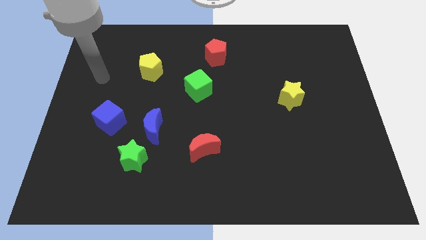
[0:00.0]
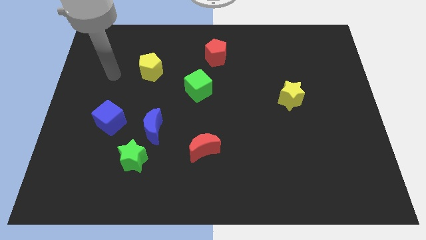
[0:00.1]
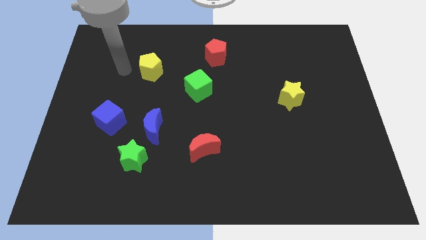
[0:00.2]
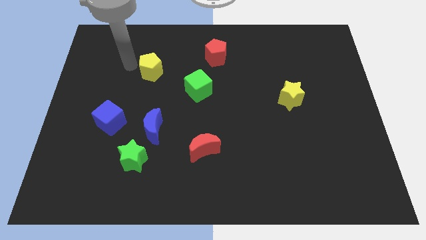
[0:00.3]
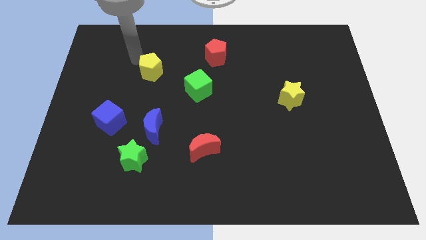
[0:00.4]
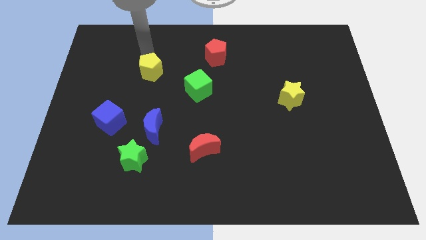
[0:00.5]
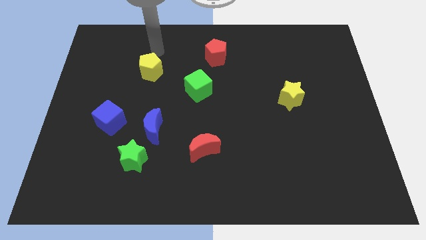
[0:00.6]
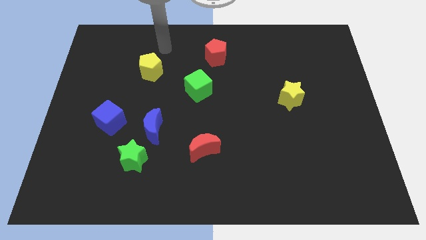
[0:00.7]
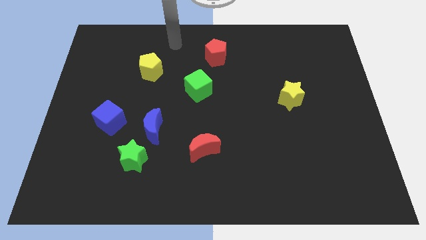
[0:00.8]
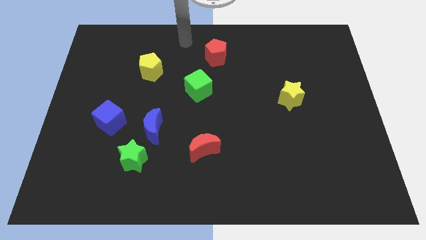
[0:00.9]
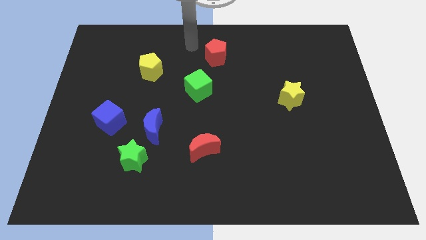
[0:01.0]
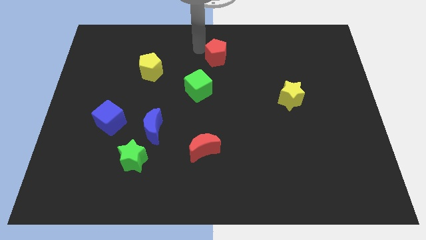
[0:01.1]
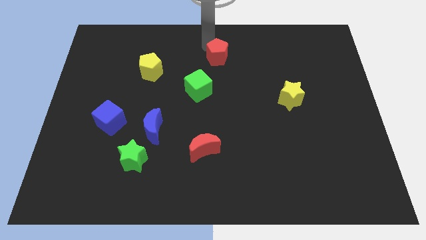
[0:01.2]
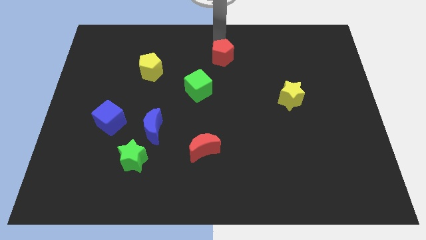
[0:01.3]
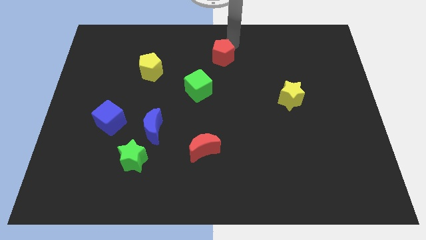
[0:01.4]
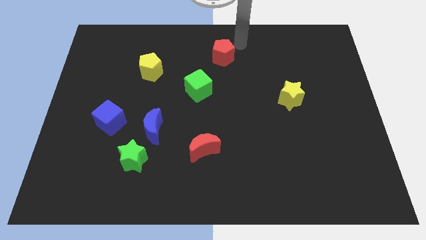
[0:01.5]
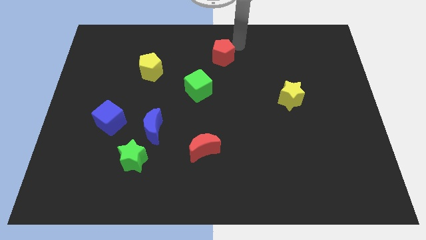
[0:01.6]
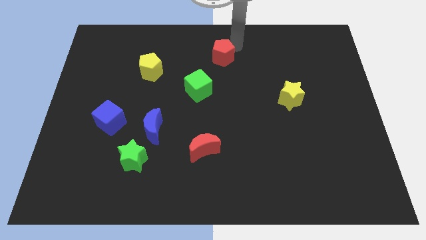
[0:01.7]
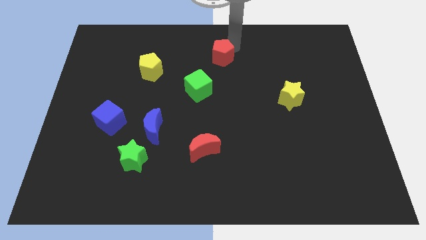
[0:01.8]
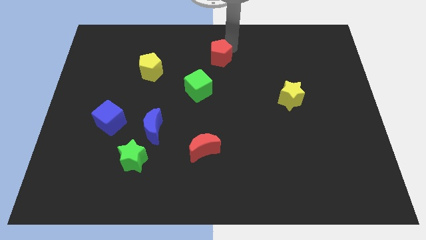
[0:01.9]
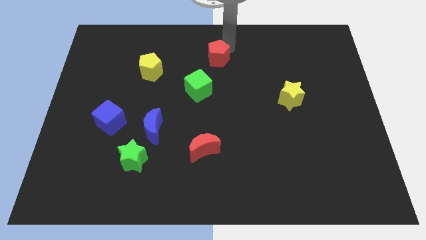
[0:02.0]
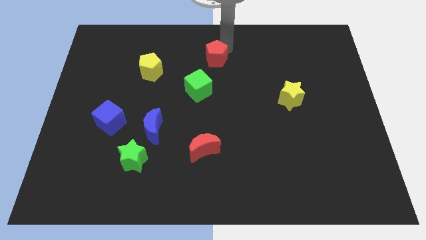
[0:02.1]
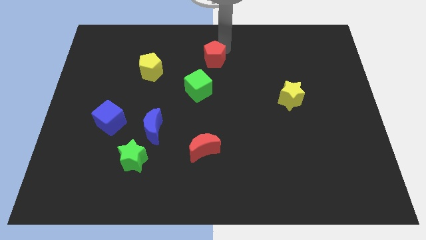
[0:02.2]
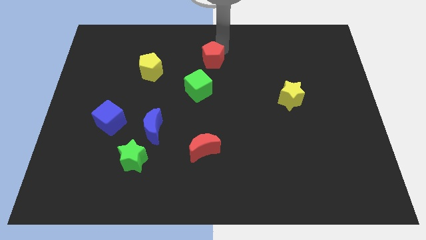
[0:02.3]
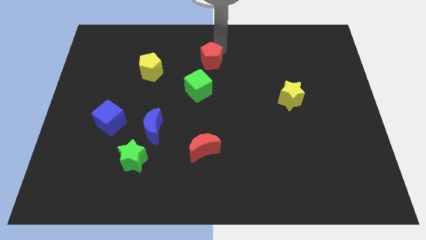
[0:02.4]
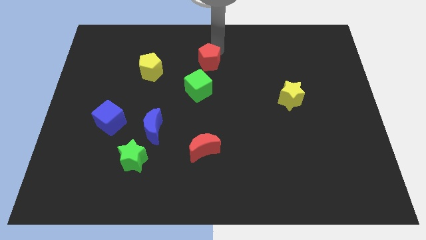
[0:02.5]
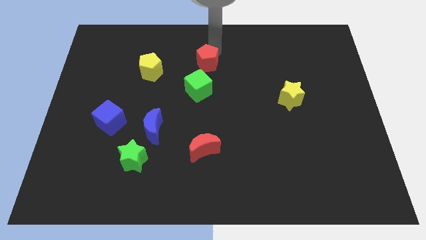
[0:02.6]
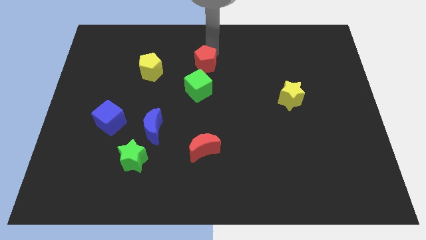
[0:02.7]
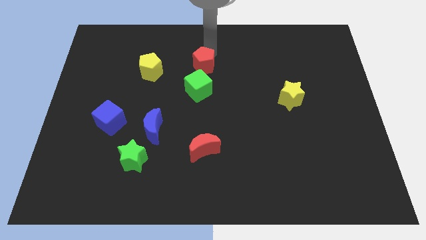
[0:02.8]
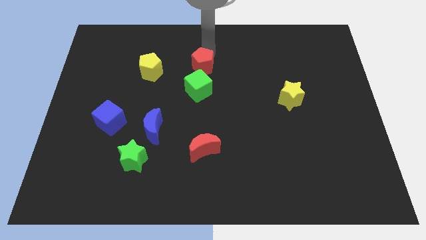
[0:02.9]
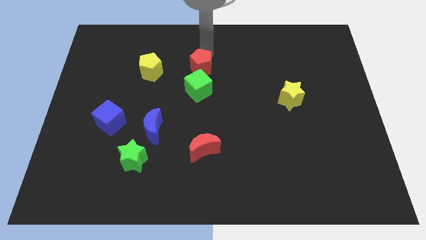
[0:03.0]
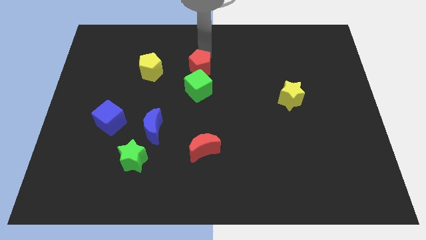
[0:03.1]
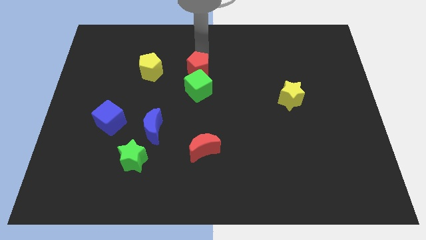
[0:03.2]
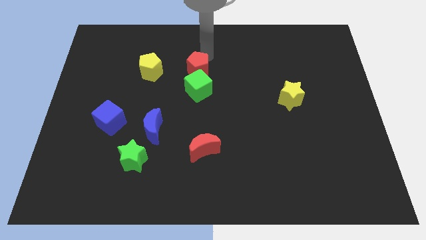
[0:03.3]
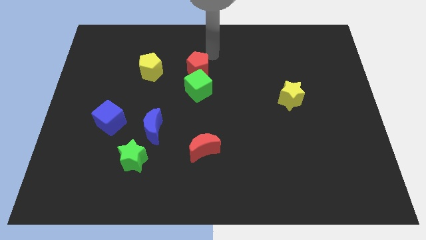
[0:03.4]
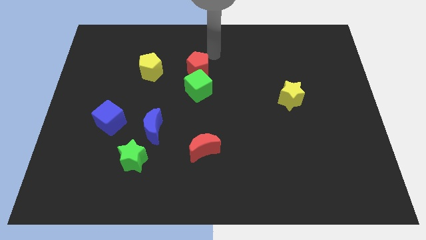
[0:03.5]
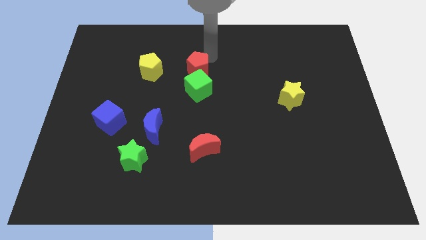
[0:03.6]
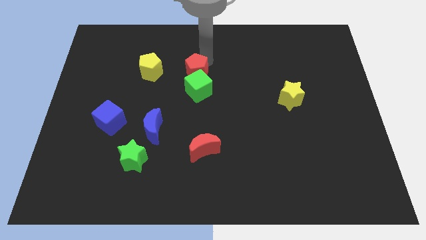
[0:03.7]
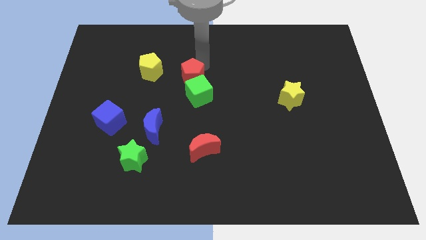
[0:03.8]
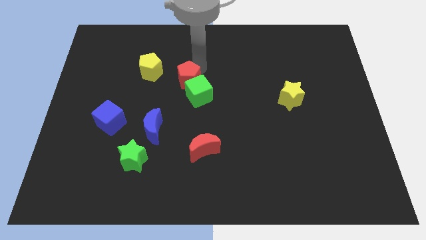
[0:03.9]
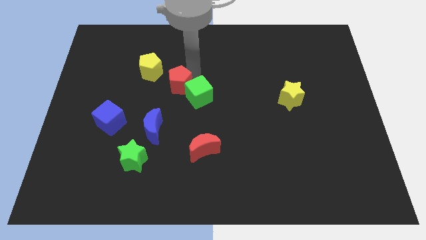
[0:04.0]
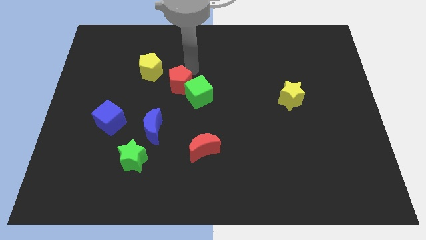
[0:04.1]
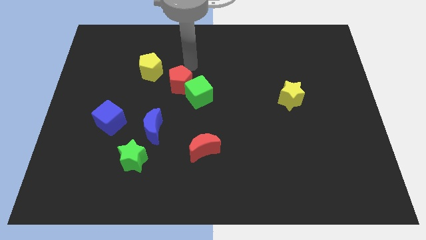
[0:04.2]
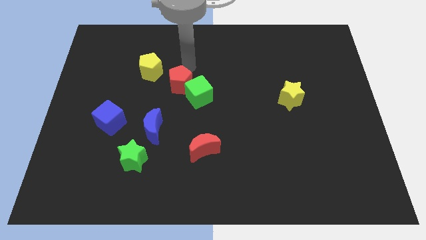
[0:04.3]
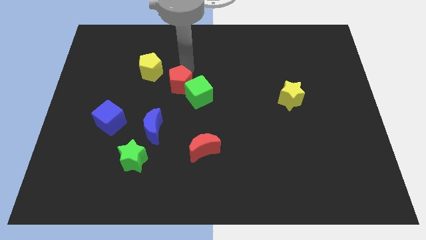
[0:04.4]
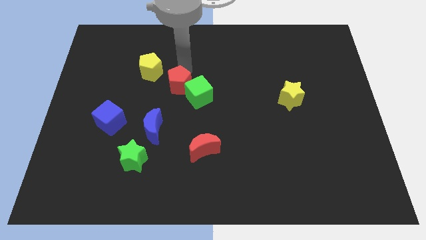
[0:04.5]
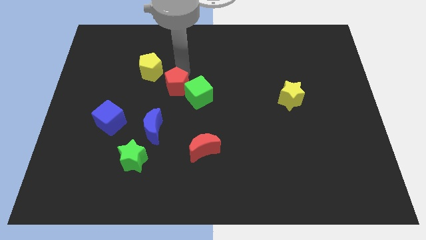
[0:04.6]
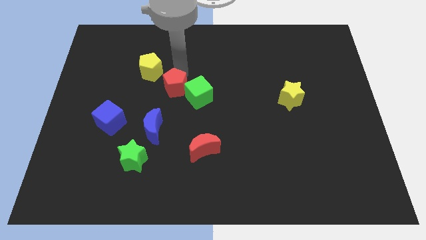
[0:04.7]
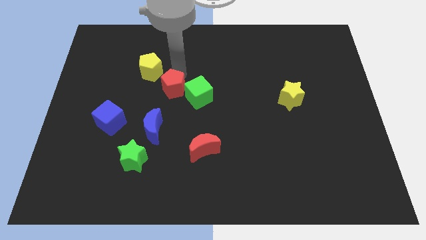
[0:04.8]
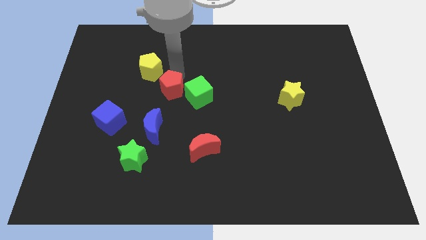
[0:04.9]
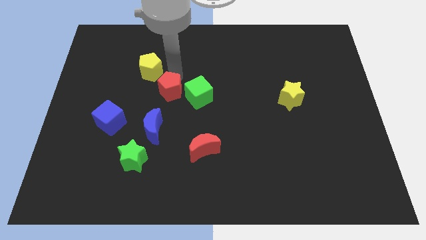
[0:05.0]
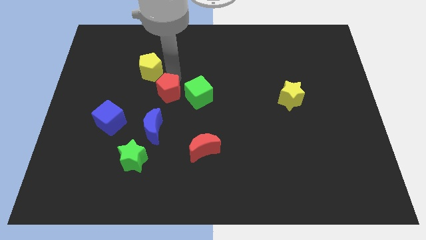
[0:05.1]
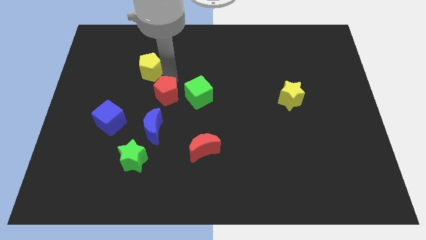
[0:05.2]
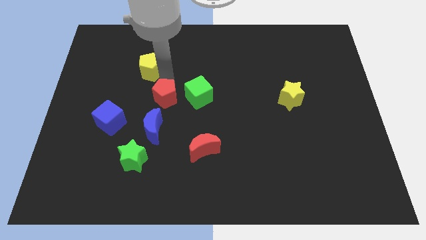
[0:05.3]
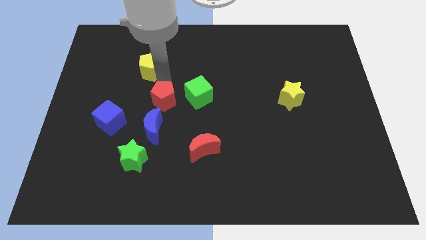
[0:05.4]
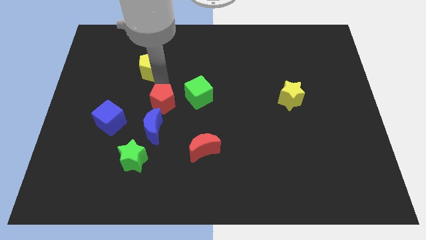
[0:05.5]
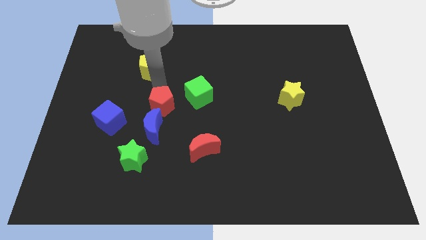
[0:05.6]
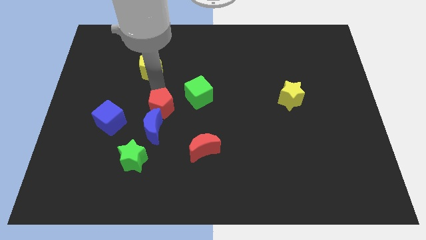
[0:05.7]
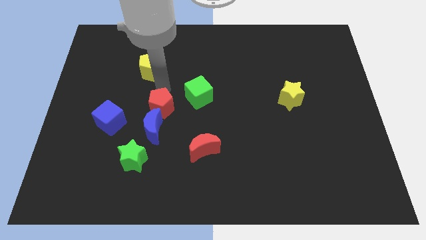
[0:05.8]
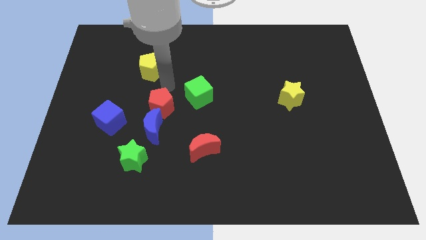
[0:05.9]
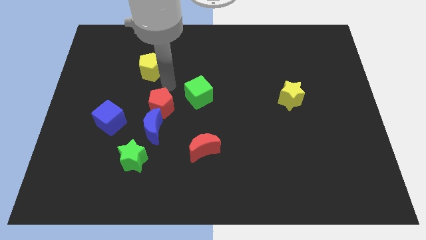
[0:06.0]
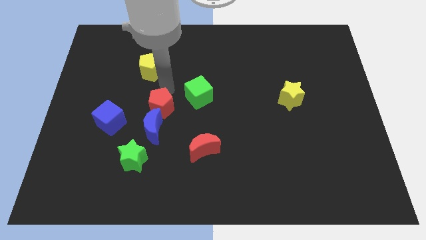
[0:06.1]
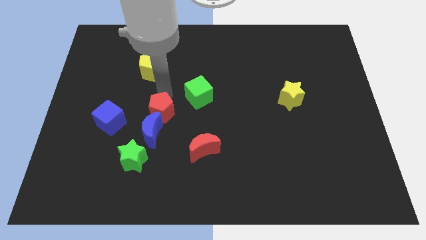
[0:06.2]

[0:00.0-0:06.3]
move the red pentagon close to the blue moon
